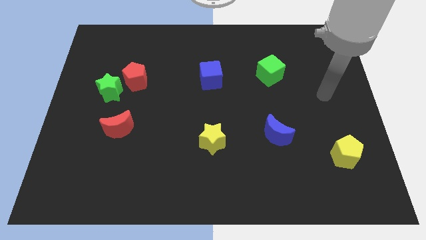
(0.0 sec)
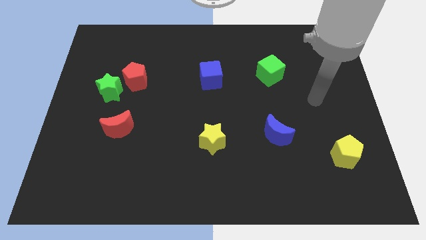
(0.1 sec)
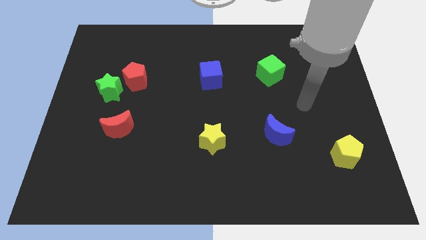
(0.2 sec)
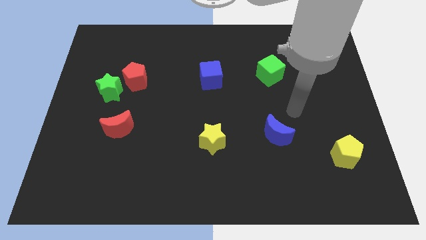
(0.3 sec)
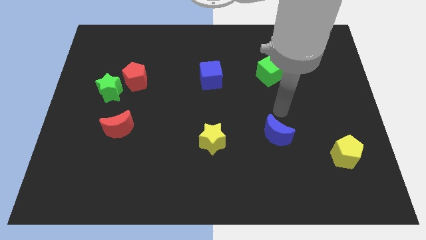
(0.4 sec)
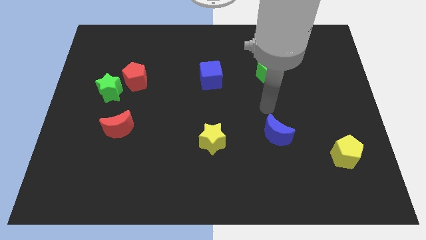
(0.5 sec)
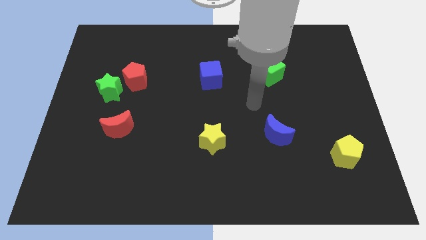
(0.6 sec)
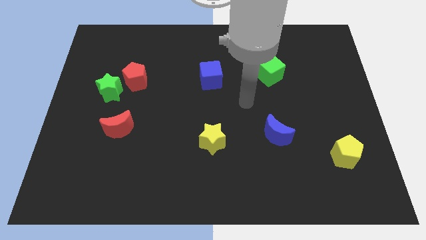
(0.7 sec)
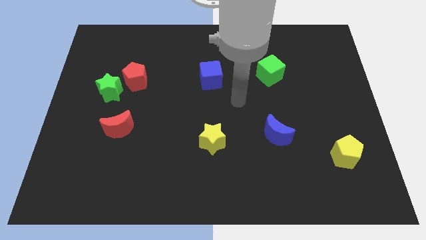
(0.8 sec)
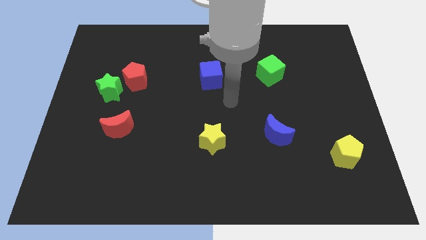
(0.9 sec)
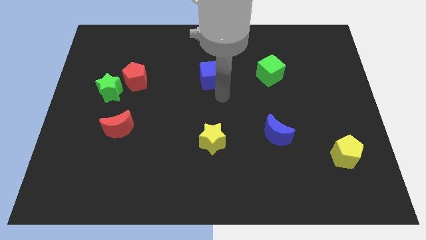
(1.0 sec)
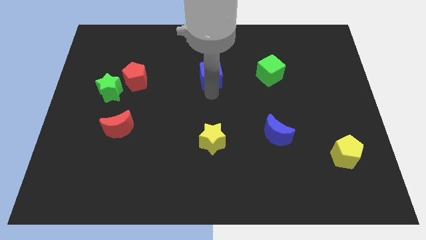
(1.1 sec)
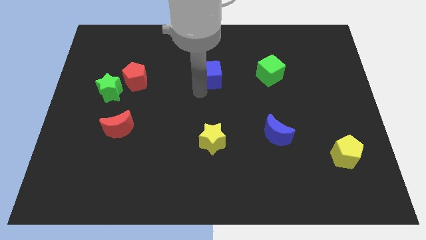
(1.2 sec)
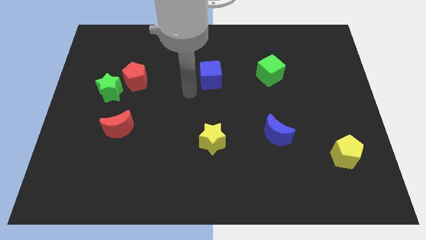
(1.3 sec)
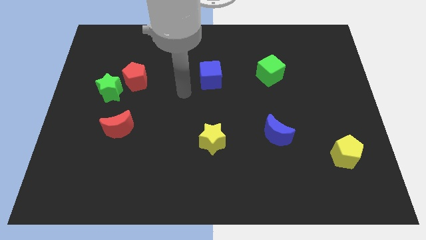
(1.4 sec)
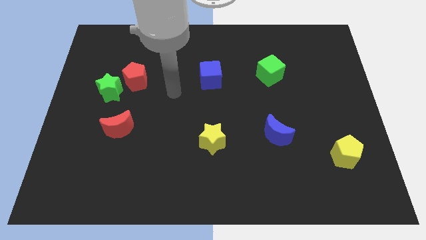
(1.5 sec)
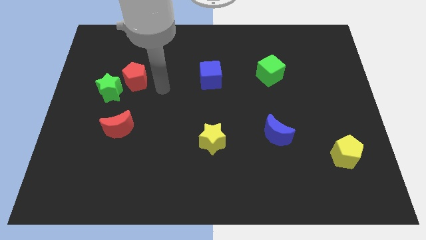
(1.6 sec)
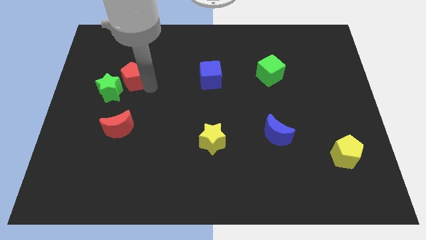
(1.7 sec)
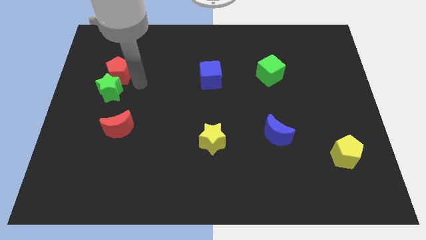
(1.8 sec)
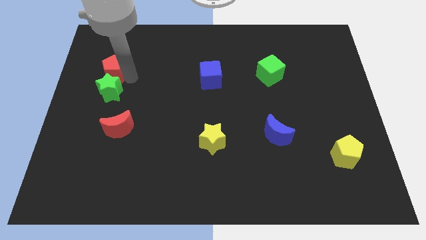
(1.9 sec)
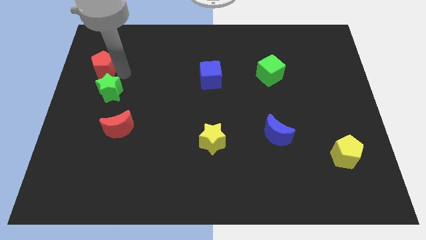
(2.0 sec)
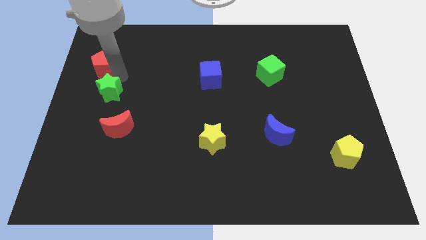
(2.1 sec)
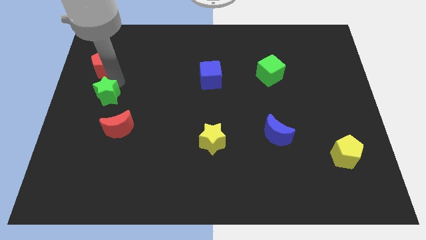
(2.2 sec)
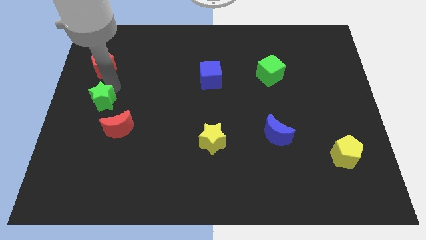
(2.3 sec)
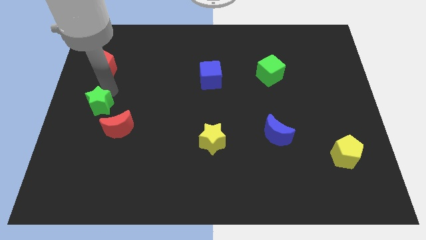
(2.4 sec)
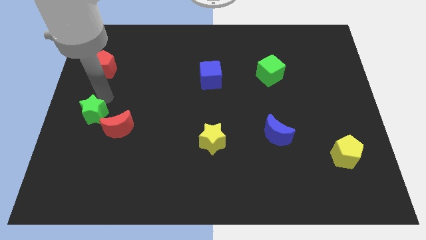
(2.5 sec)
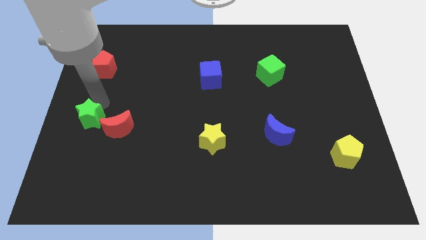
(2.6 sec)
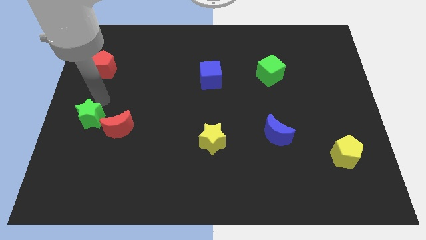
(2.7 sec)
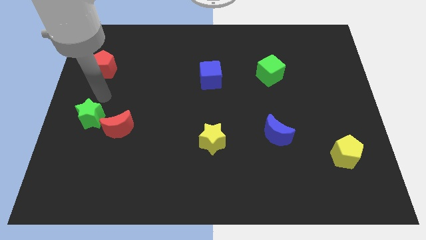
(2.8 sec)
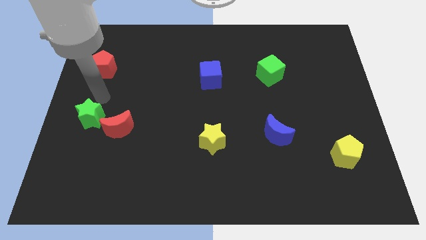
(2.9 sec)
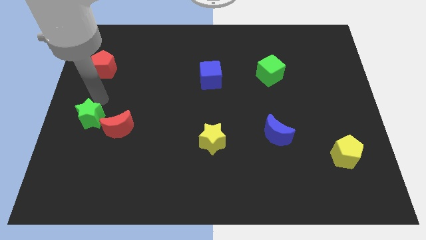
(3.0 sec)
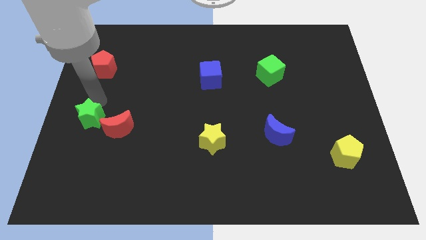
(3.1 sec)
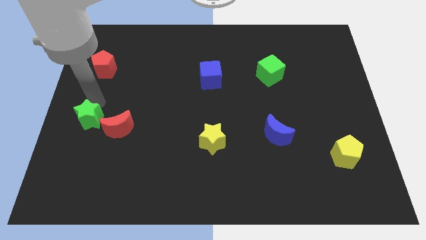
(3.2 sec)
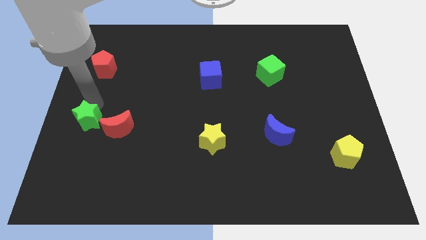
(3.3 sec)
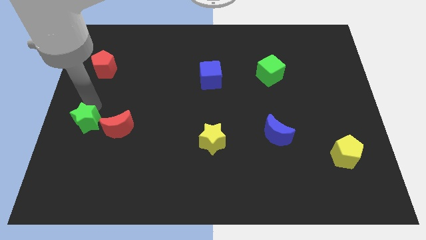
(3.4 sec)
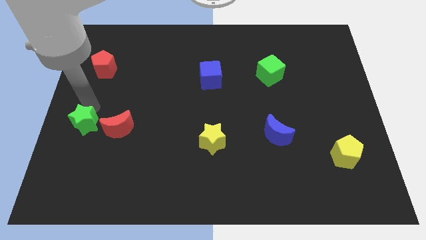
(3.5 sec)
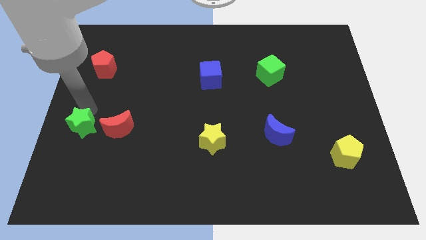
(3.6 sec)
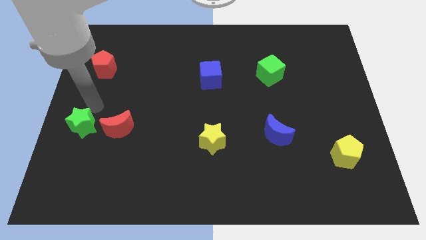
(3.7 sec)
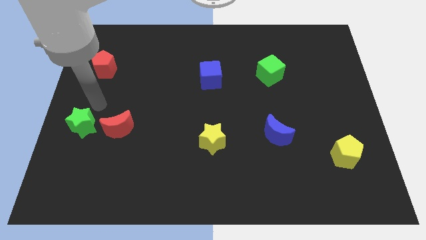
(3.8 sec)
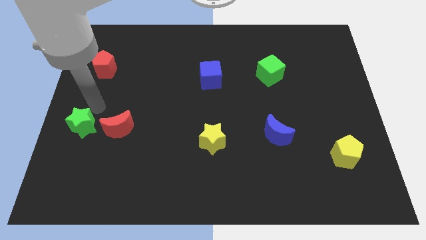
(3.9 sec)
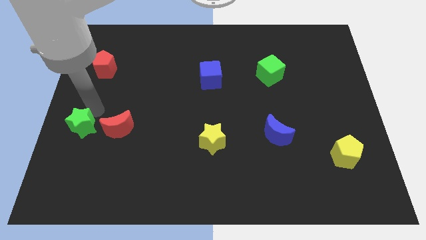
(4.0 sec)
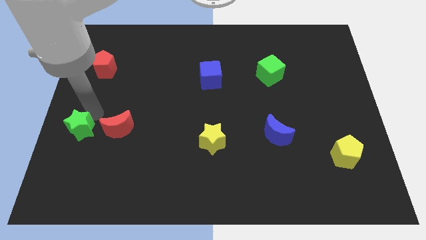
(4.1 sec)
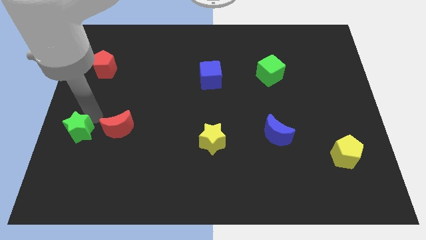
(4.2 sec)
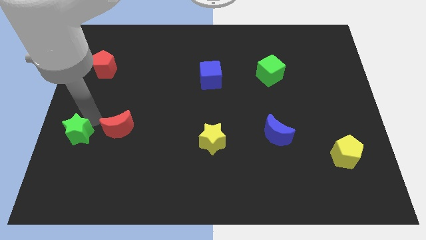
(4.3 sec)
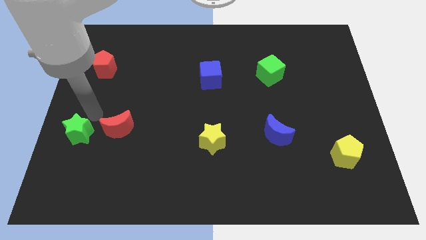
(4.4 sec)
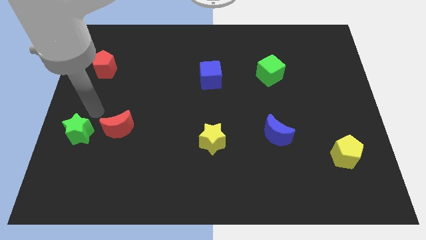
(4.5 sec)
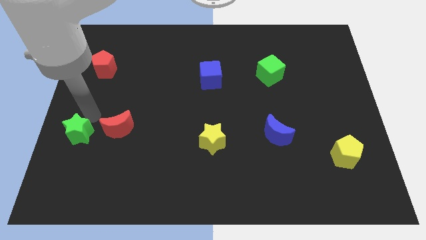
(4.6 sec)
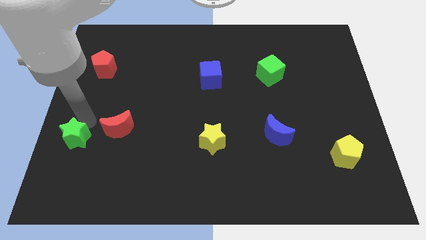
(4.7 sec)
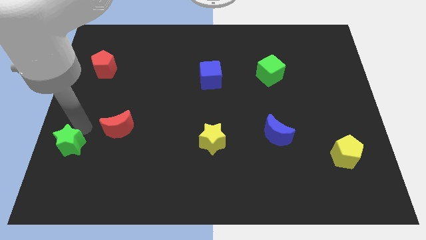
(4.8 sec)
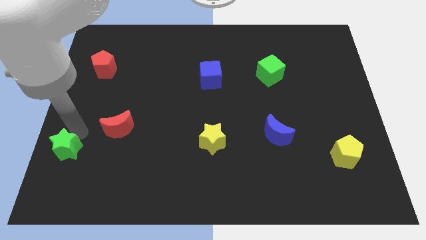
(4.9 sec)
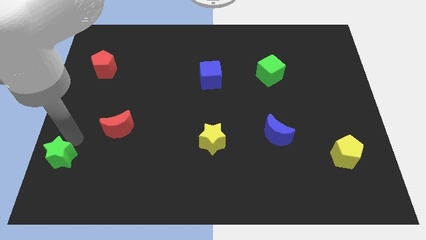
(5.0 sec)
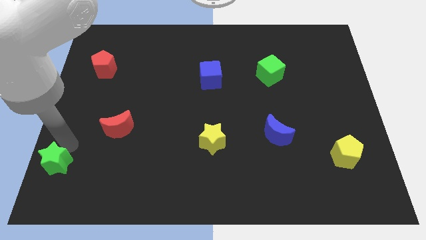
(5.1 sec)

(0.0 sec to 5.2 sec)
put the green star to the bottom left

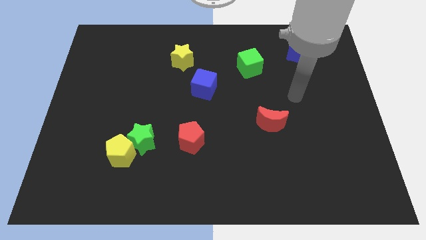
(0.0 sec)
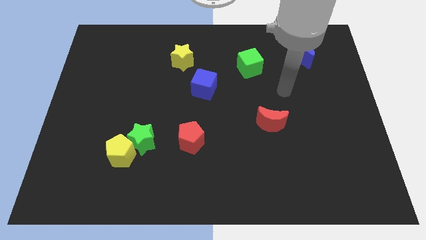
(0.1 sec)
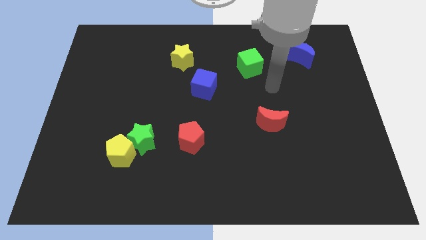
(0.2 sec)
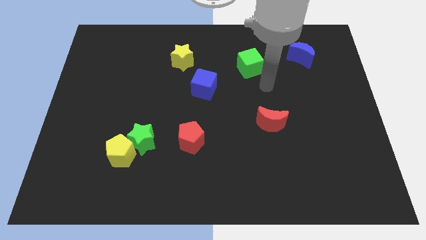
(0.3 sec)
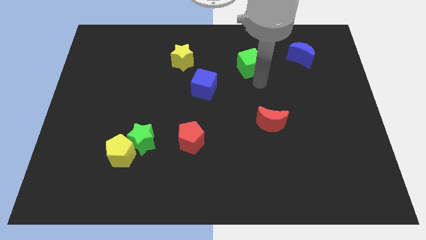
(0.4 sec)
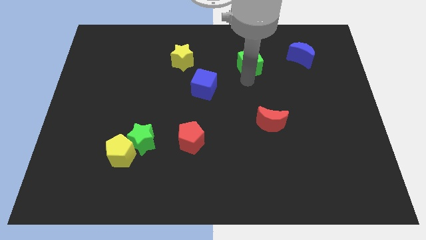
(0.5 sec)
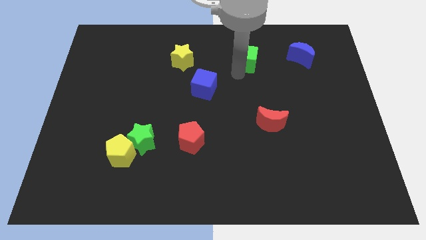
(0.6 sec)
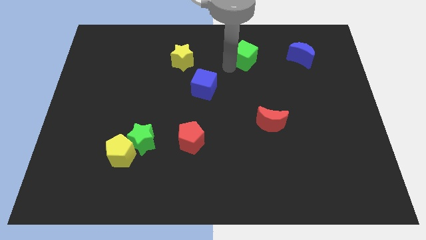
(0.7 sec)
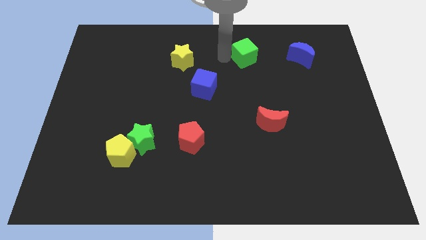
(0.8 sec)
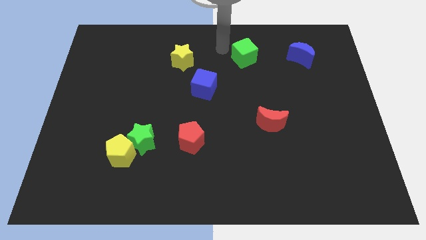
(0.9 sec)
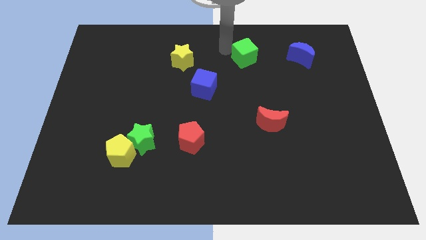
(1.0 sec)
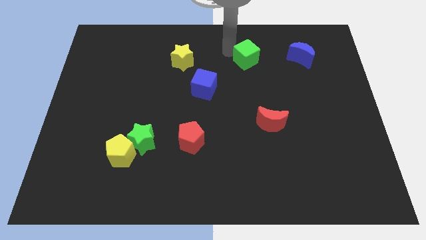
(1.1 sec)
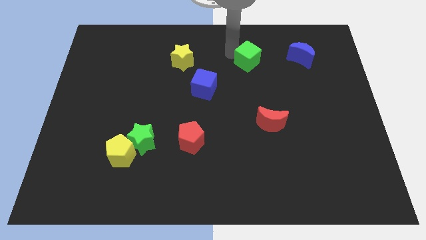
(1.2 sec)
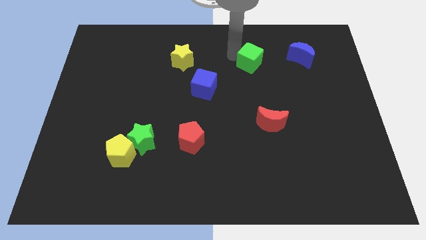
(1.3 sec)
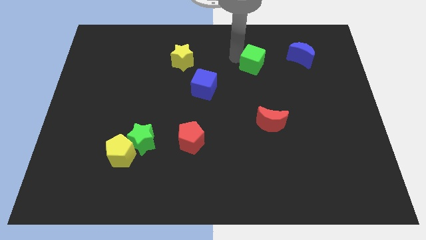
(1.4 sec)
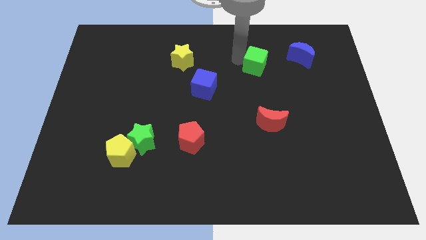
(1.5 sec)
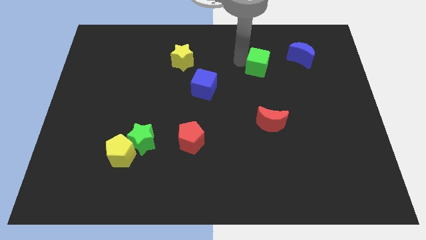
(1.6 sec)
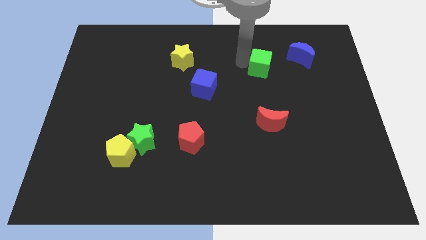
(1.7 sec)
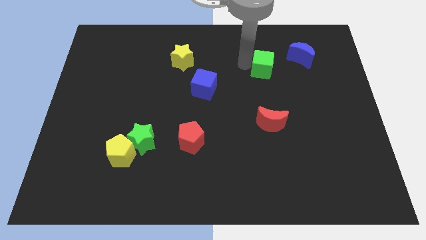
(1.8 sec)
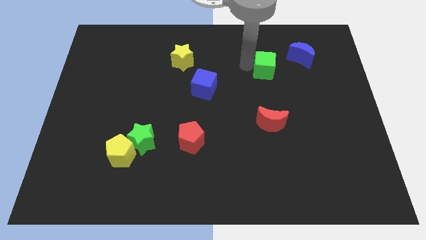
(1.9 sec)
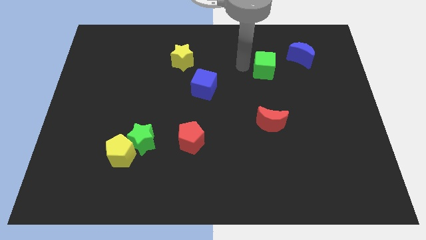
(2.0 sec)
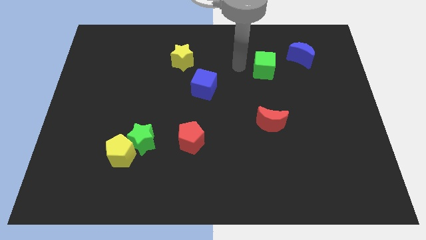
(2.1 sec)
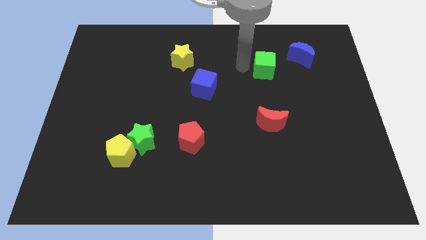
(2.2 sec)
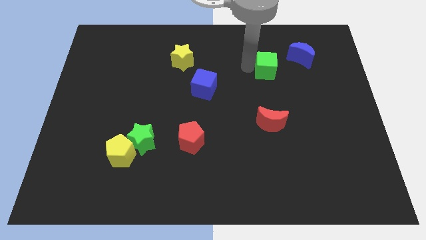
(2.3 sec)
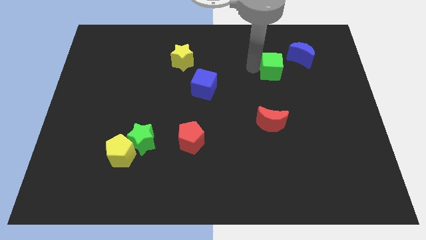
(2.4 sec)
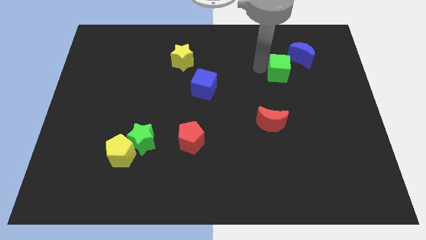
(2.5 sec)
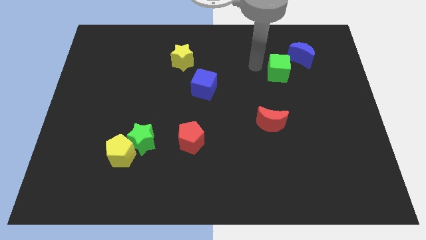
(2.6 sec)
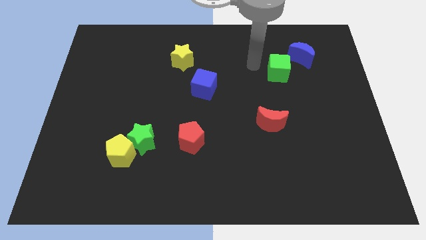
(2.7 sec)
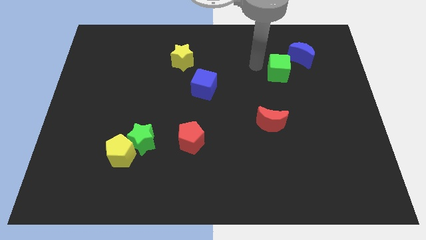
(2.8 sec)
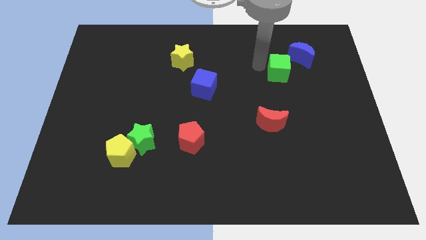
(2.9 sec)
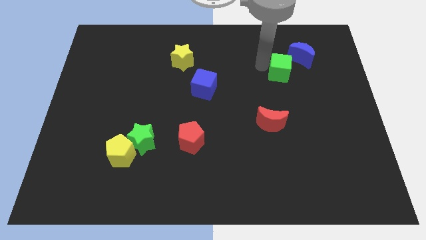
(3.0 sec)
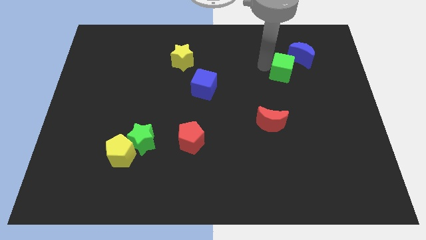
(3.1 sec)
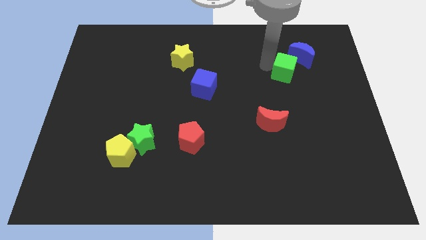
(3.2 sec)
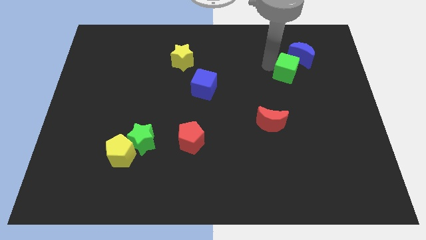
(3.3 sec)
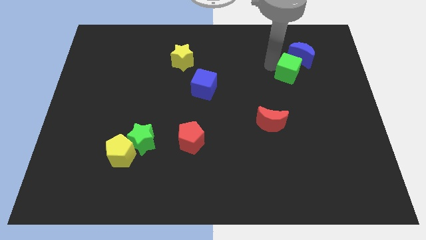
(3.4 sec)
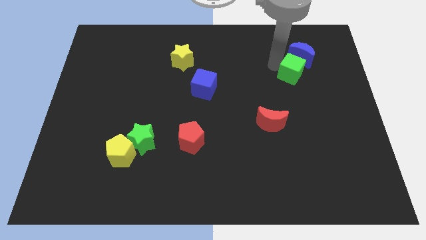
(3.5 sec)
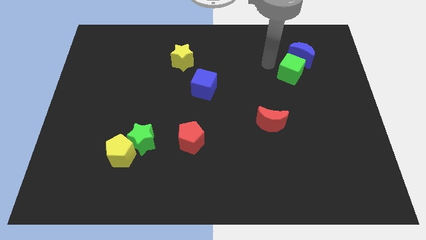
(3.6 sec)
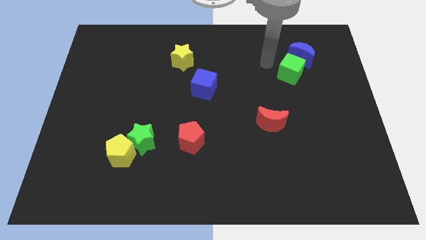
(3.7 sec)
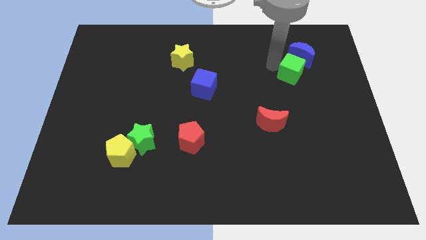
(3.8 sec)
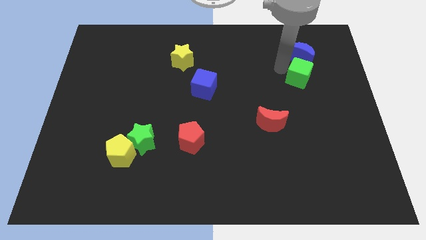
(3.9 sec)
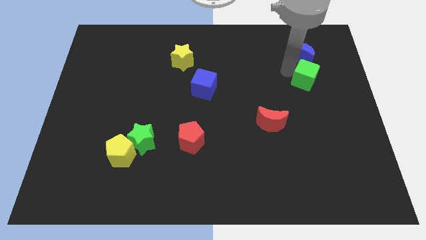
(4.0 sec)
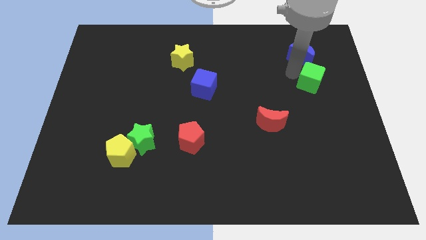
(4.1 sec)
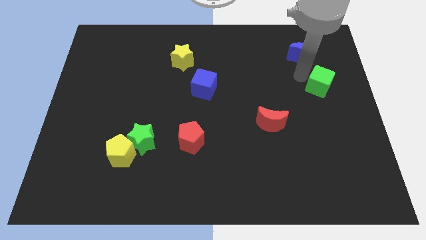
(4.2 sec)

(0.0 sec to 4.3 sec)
slide the green cube to the right side
